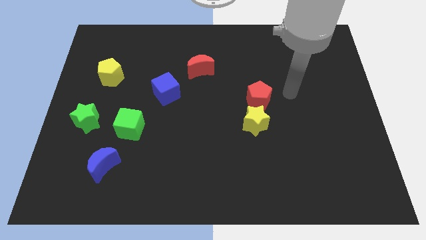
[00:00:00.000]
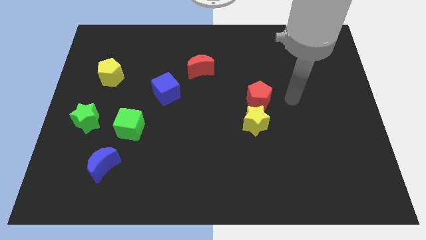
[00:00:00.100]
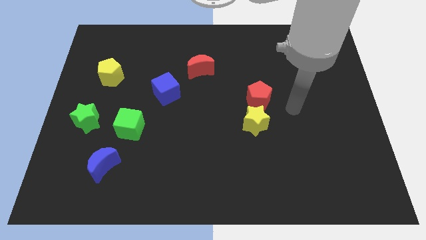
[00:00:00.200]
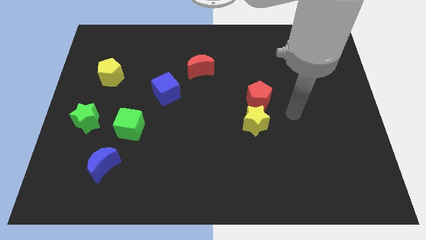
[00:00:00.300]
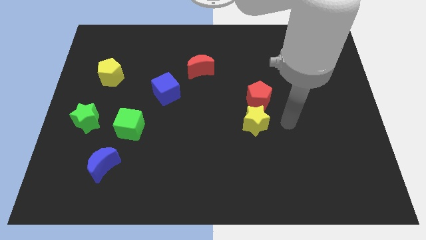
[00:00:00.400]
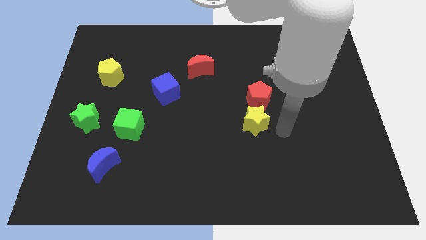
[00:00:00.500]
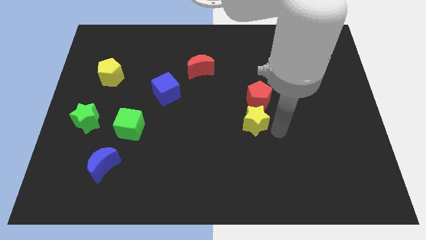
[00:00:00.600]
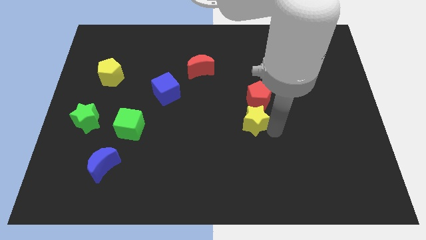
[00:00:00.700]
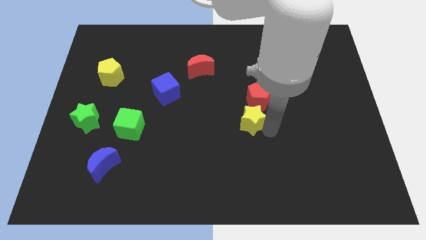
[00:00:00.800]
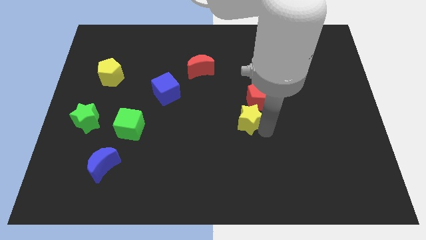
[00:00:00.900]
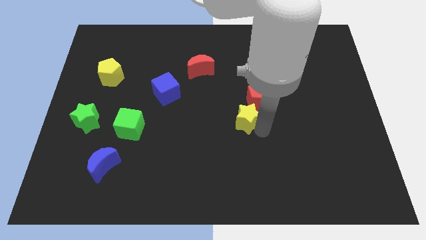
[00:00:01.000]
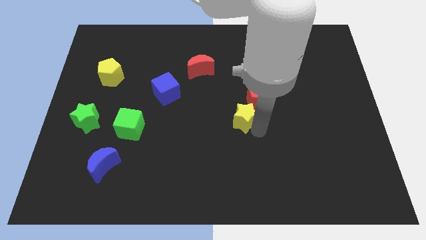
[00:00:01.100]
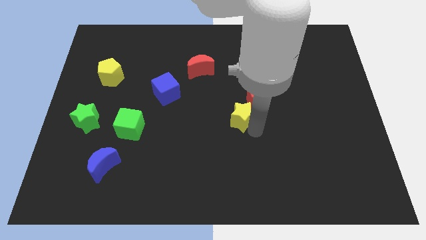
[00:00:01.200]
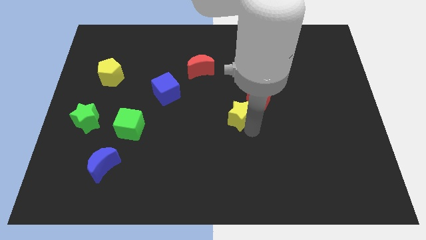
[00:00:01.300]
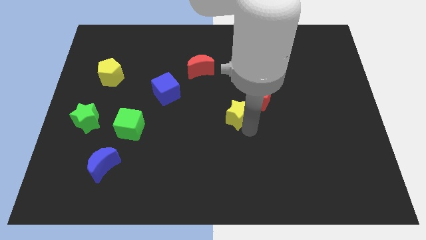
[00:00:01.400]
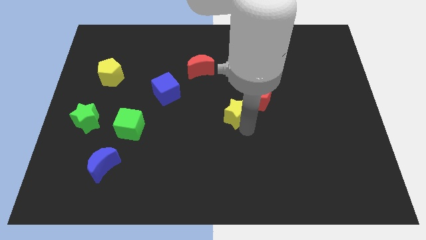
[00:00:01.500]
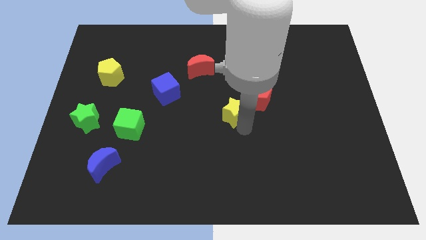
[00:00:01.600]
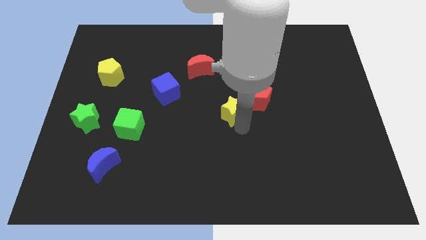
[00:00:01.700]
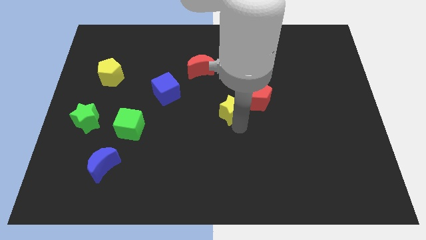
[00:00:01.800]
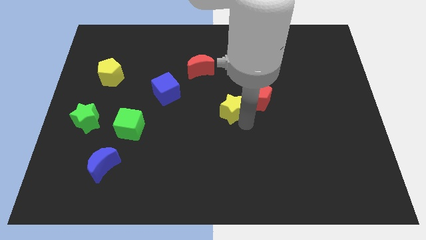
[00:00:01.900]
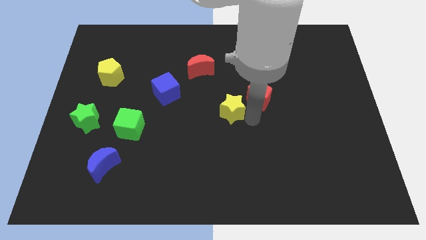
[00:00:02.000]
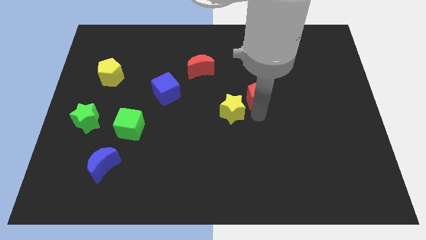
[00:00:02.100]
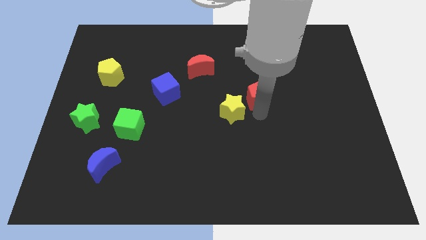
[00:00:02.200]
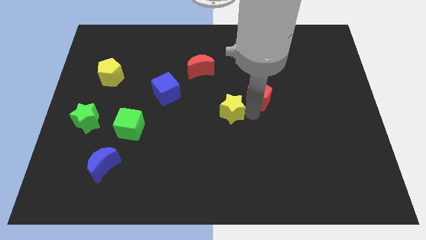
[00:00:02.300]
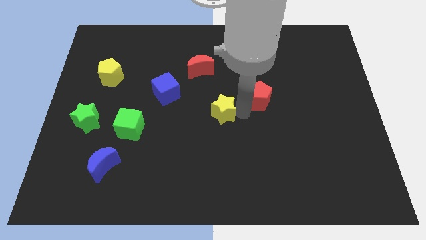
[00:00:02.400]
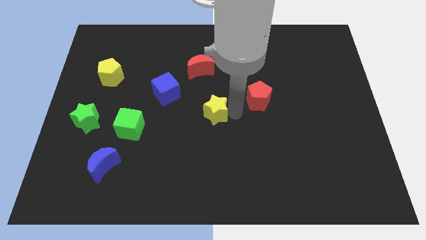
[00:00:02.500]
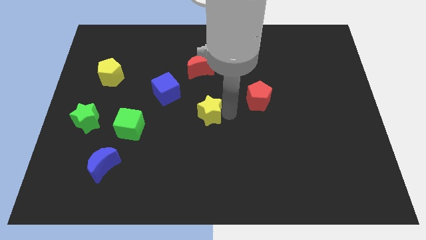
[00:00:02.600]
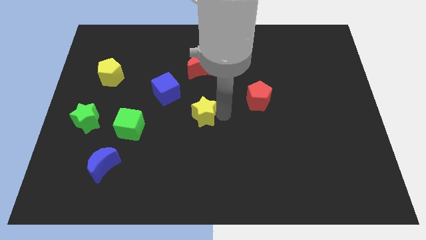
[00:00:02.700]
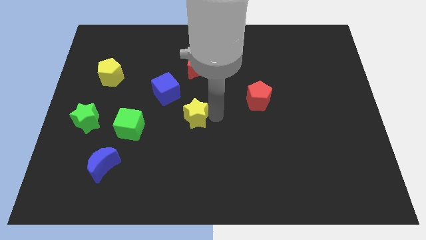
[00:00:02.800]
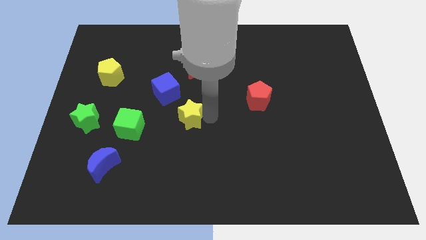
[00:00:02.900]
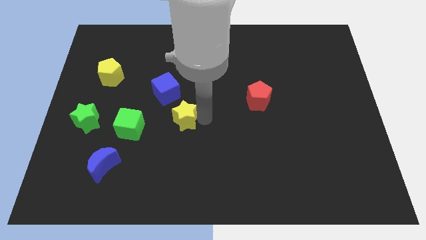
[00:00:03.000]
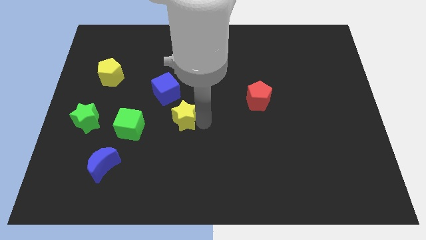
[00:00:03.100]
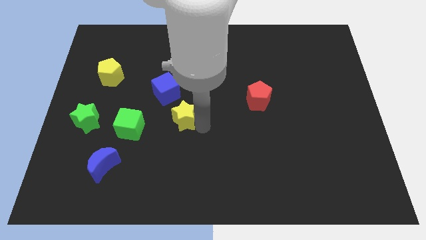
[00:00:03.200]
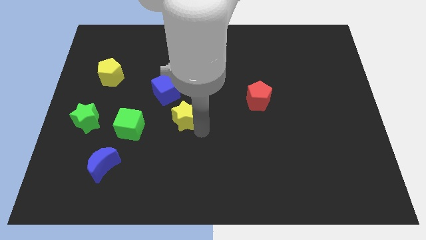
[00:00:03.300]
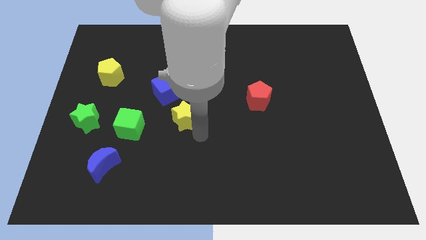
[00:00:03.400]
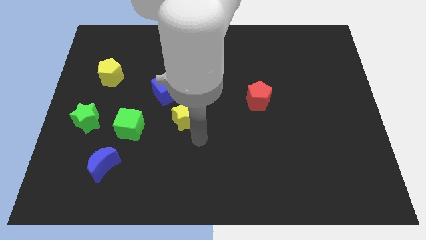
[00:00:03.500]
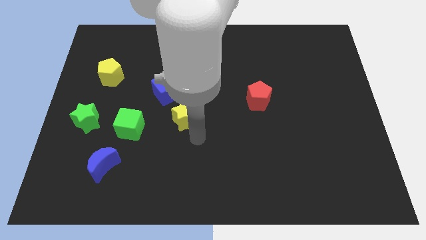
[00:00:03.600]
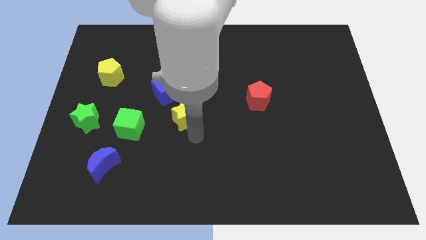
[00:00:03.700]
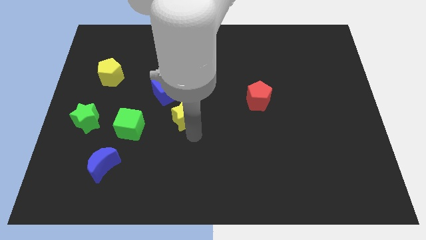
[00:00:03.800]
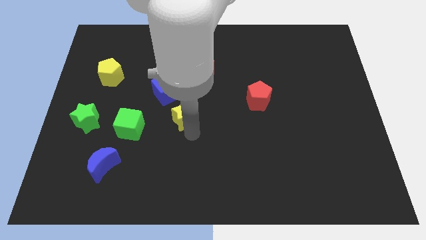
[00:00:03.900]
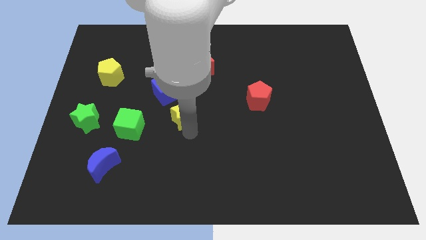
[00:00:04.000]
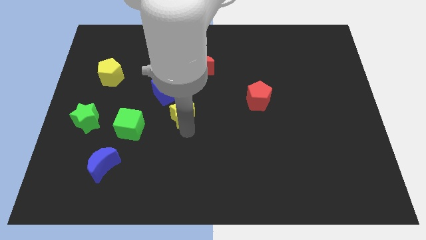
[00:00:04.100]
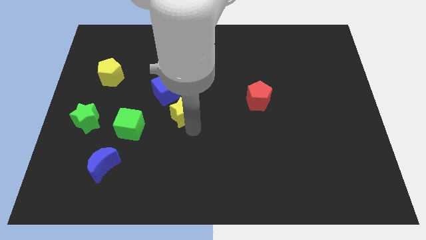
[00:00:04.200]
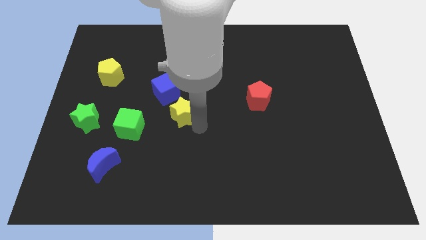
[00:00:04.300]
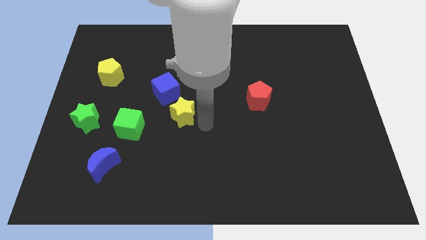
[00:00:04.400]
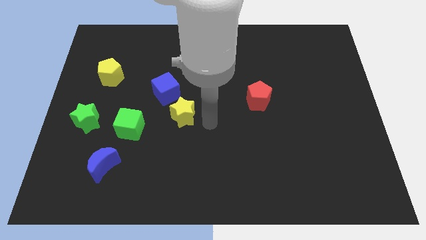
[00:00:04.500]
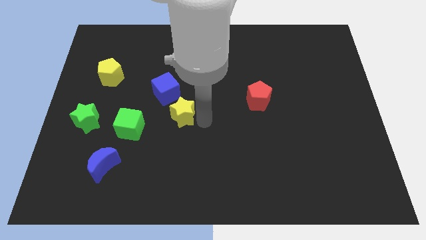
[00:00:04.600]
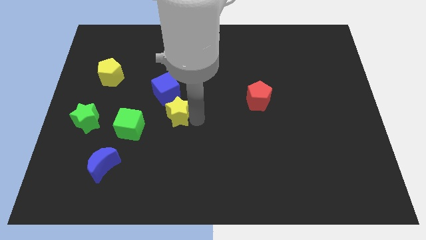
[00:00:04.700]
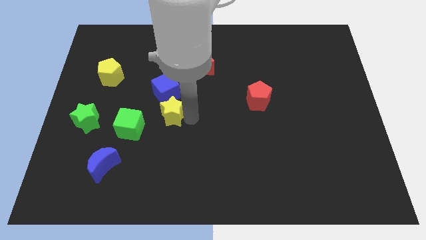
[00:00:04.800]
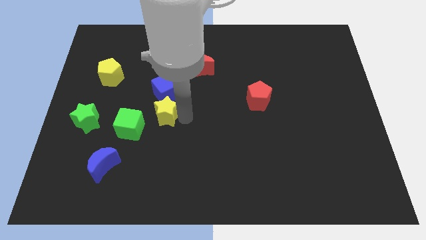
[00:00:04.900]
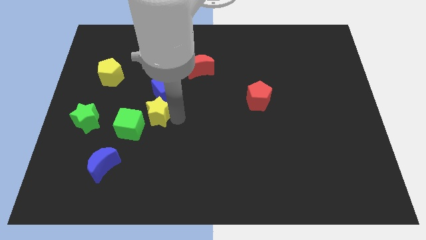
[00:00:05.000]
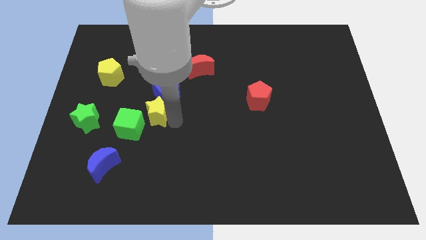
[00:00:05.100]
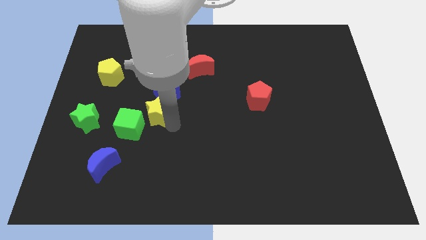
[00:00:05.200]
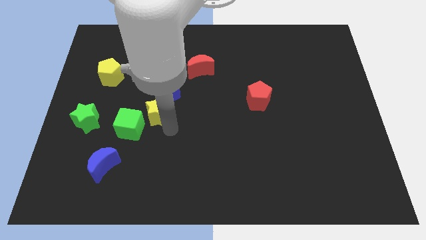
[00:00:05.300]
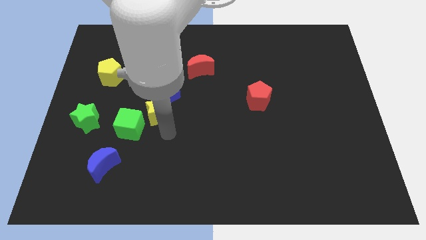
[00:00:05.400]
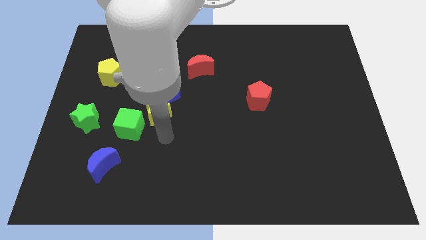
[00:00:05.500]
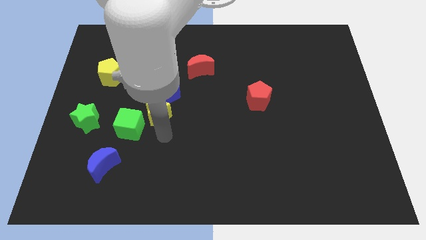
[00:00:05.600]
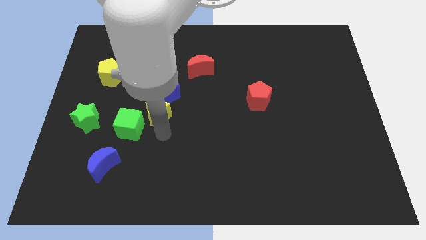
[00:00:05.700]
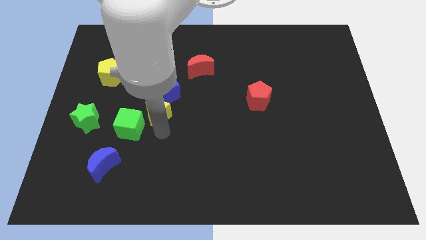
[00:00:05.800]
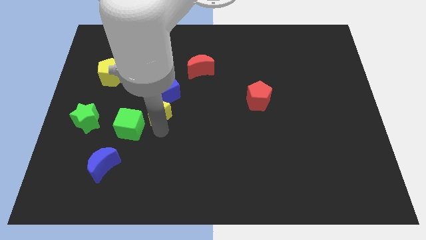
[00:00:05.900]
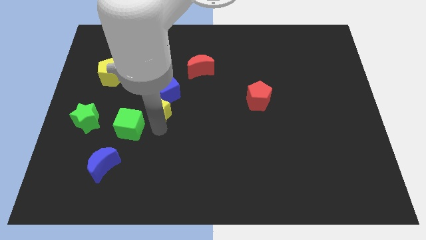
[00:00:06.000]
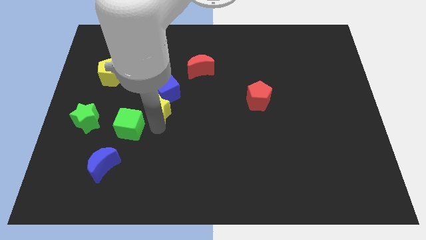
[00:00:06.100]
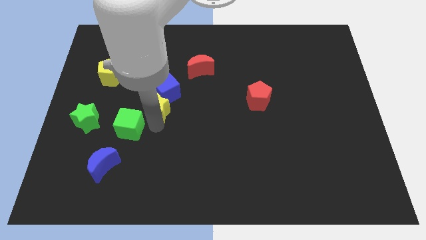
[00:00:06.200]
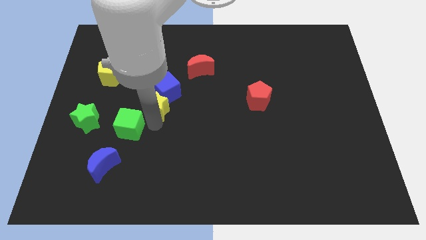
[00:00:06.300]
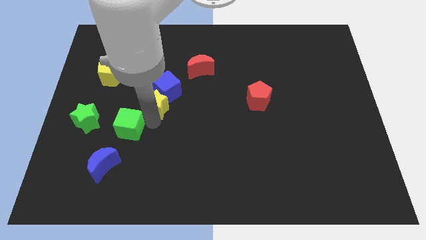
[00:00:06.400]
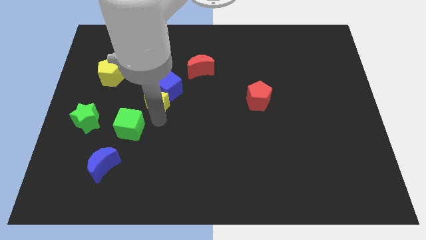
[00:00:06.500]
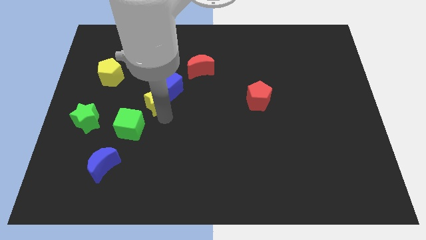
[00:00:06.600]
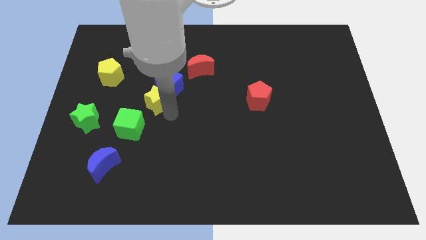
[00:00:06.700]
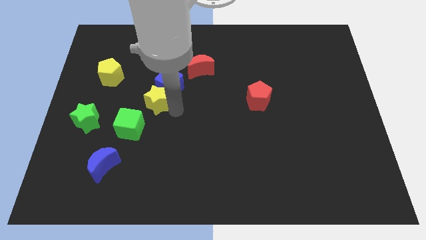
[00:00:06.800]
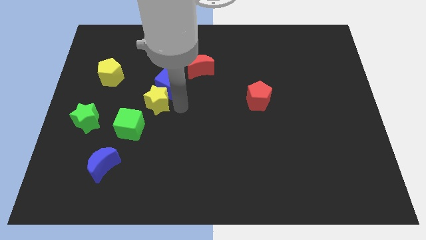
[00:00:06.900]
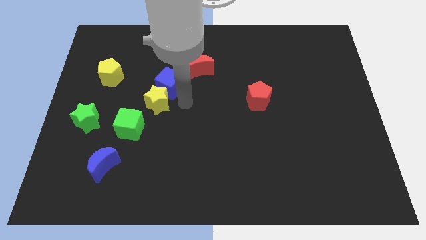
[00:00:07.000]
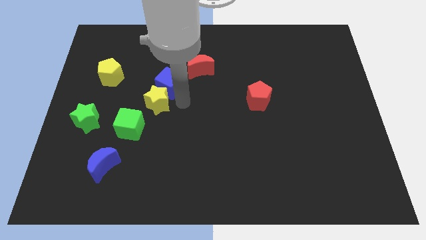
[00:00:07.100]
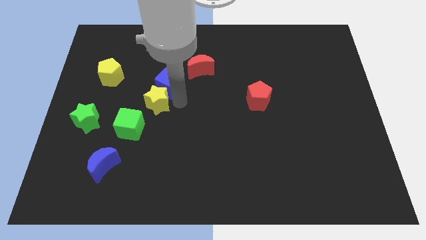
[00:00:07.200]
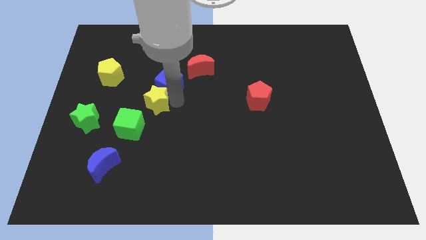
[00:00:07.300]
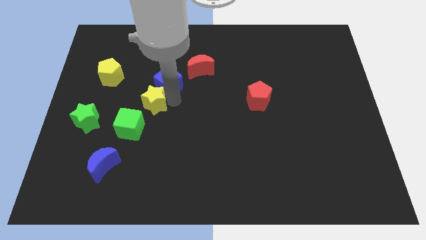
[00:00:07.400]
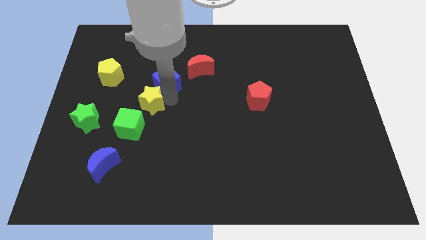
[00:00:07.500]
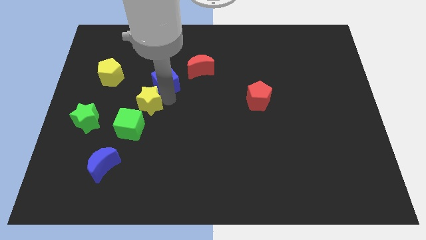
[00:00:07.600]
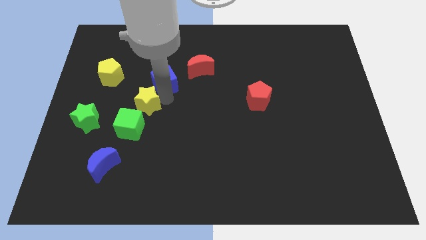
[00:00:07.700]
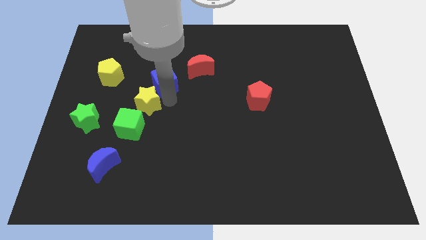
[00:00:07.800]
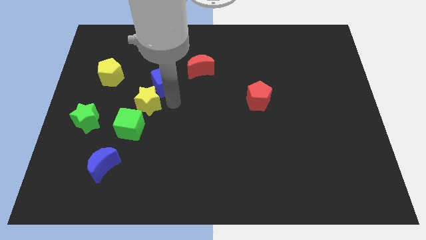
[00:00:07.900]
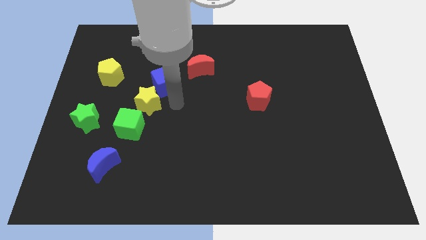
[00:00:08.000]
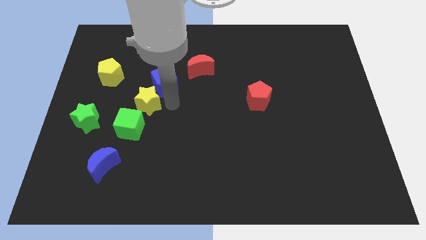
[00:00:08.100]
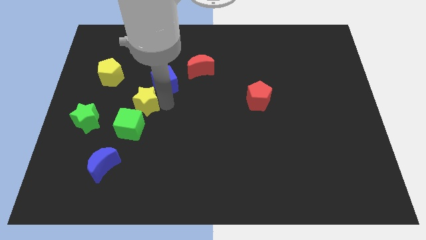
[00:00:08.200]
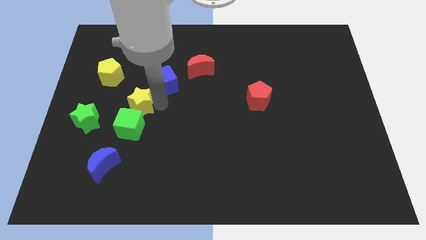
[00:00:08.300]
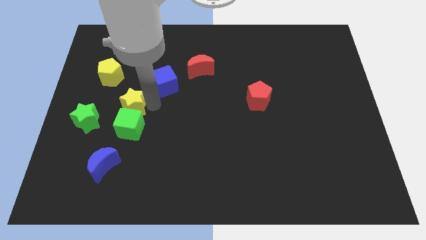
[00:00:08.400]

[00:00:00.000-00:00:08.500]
put the yellow star to the top left side of the green cube

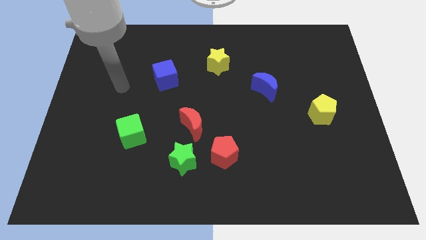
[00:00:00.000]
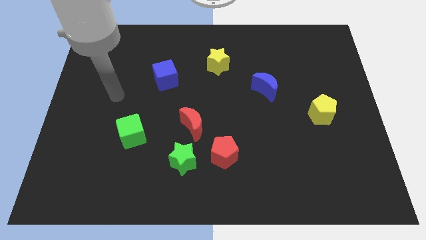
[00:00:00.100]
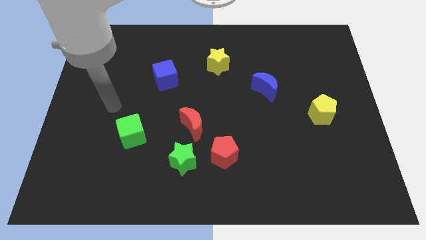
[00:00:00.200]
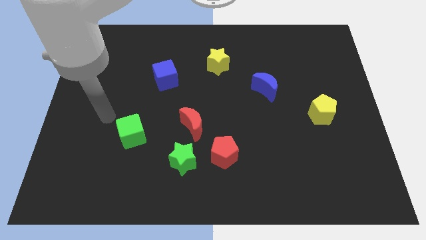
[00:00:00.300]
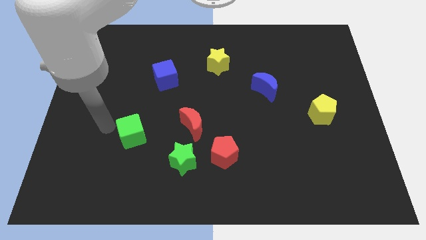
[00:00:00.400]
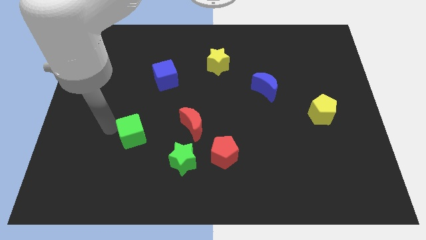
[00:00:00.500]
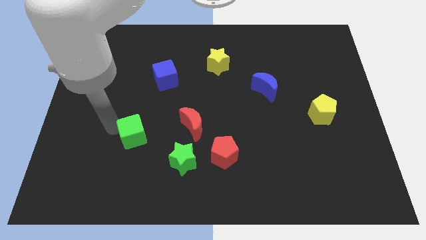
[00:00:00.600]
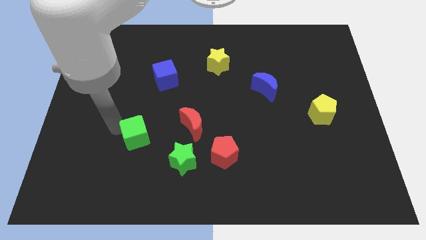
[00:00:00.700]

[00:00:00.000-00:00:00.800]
move the green cube diagonally up and to the left of the green star
